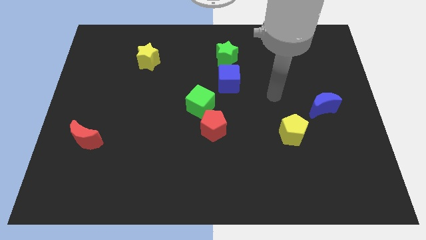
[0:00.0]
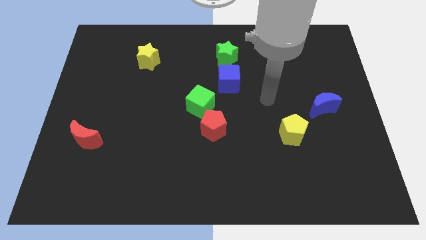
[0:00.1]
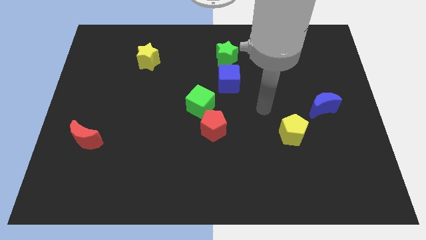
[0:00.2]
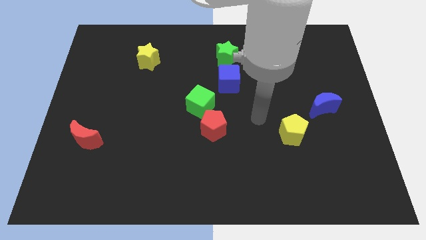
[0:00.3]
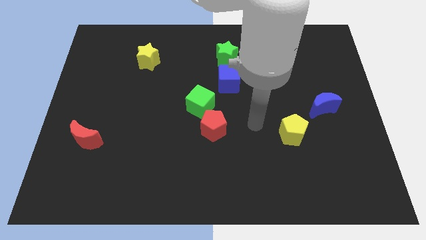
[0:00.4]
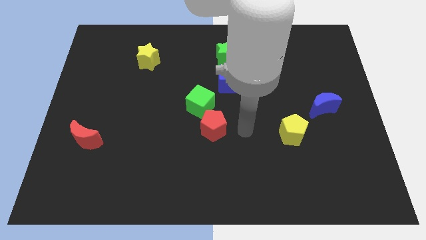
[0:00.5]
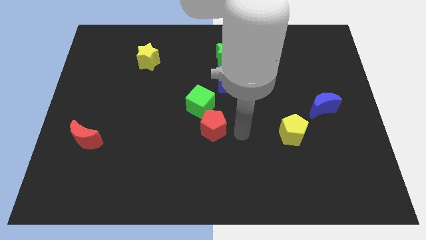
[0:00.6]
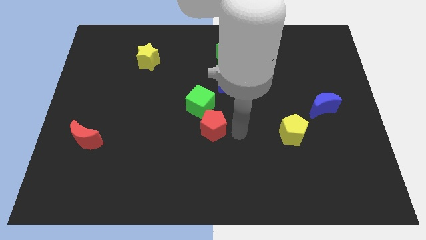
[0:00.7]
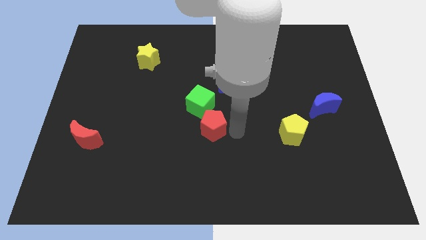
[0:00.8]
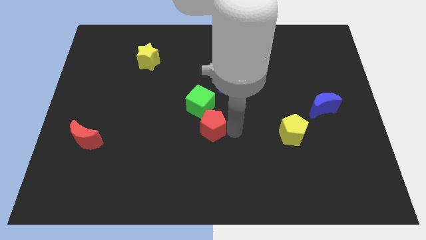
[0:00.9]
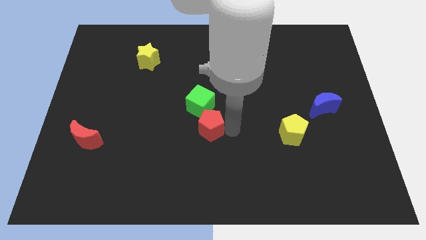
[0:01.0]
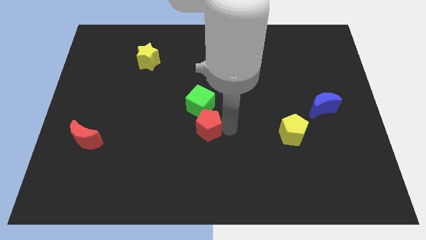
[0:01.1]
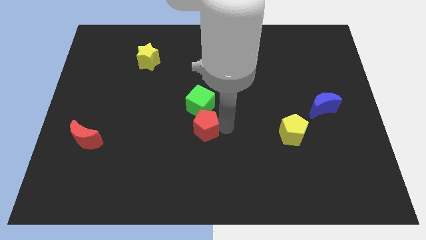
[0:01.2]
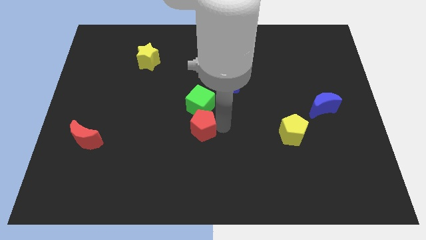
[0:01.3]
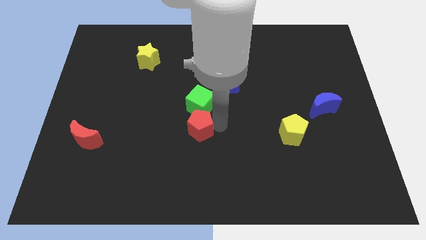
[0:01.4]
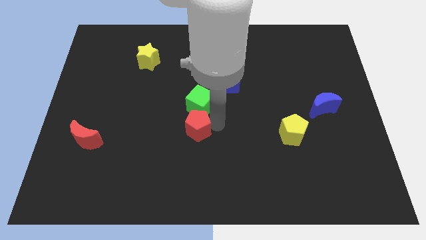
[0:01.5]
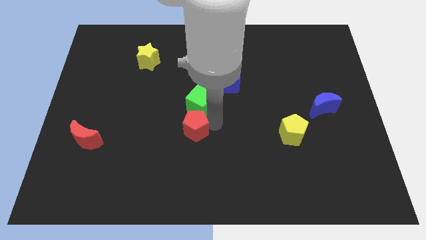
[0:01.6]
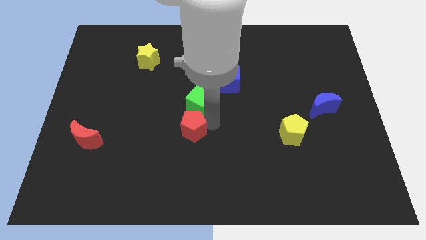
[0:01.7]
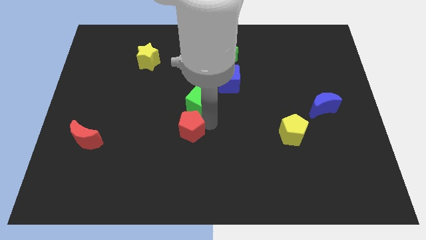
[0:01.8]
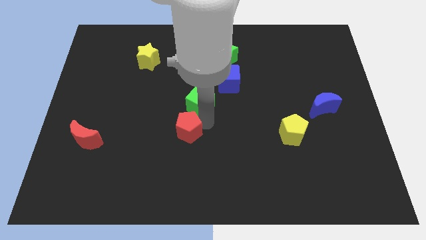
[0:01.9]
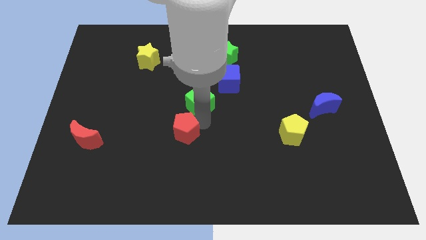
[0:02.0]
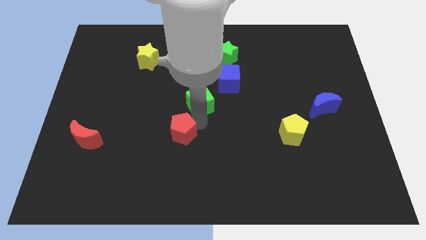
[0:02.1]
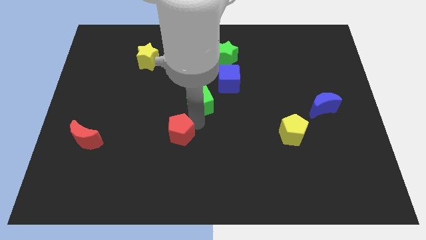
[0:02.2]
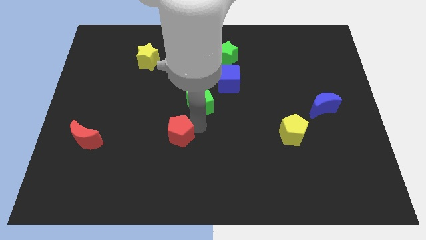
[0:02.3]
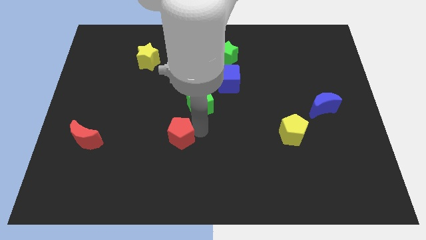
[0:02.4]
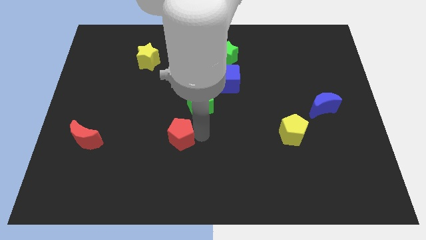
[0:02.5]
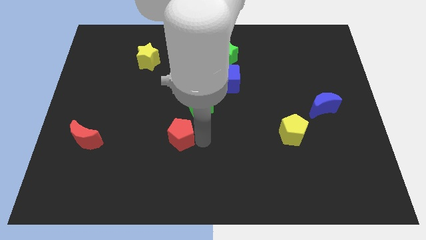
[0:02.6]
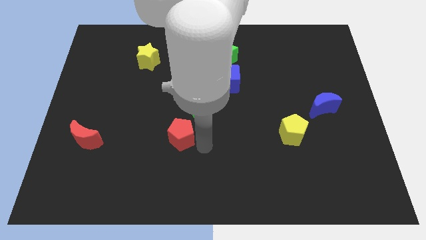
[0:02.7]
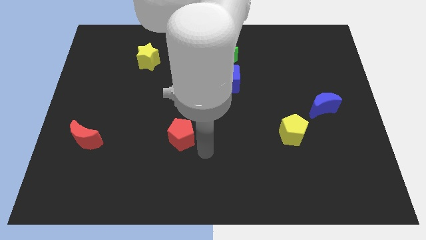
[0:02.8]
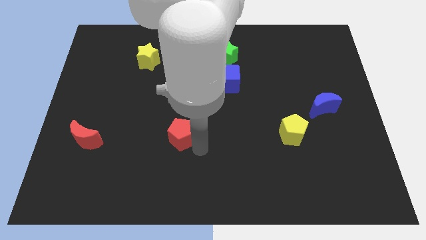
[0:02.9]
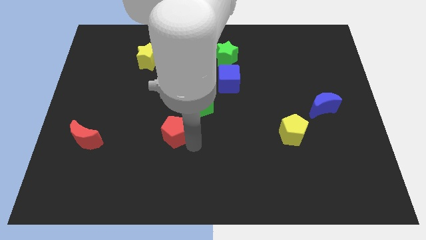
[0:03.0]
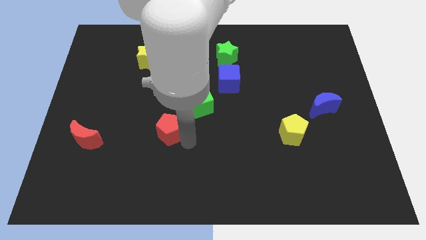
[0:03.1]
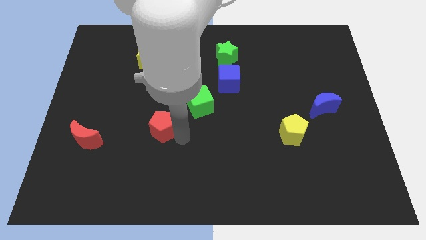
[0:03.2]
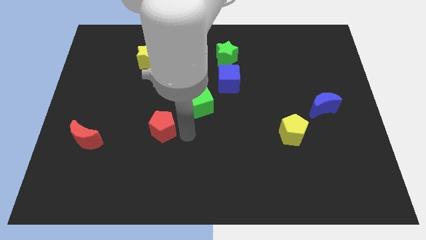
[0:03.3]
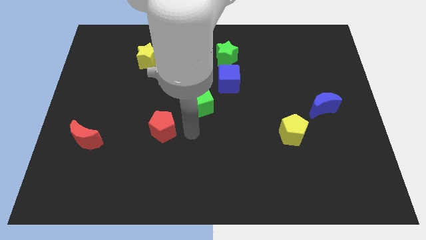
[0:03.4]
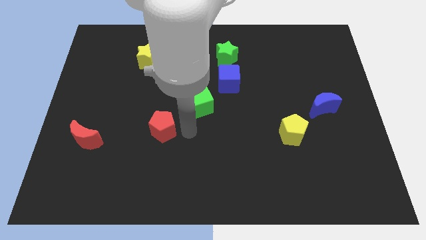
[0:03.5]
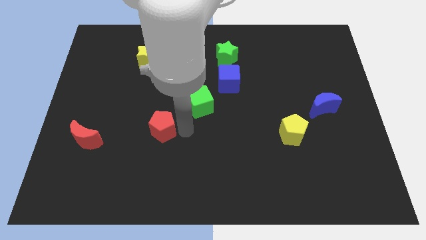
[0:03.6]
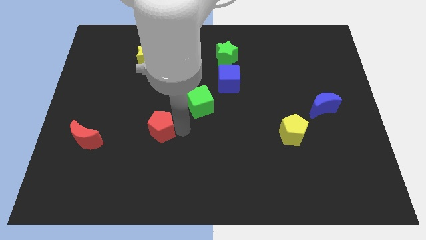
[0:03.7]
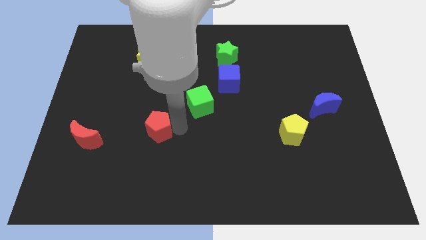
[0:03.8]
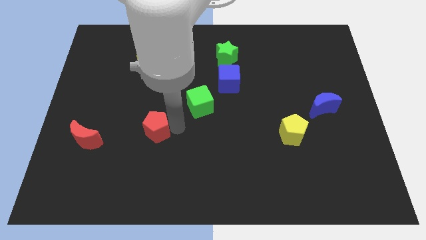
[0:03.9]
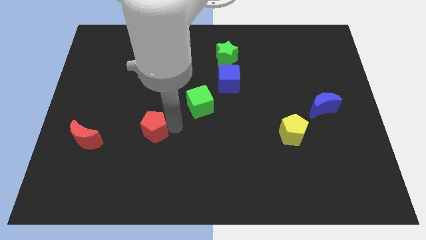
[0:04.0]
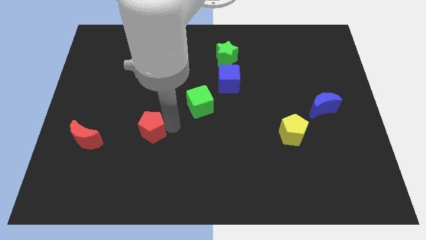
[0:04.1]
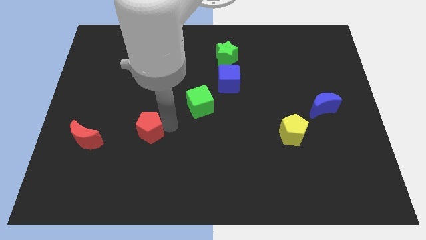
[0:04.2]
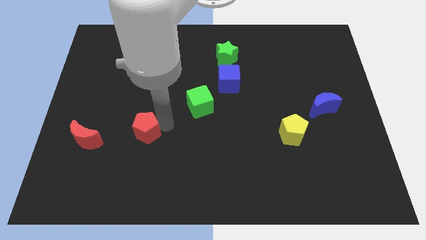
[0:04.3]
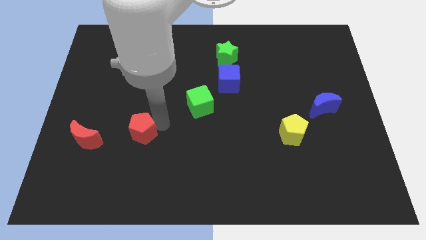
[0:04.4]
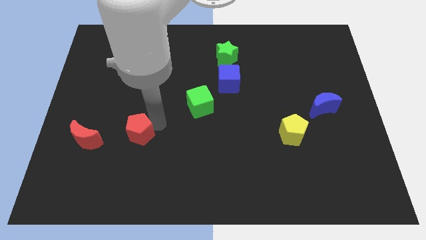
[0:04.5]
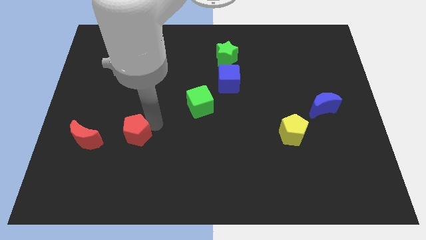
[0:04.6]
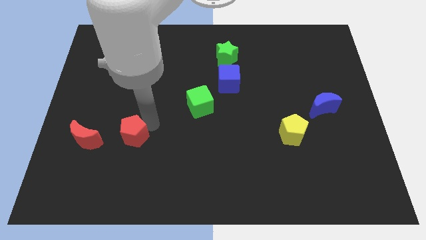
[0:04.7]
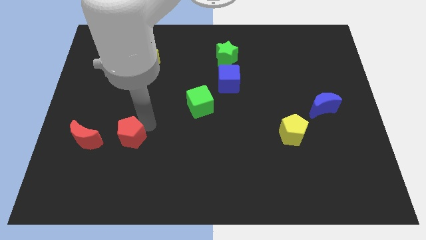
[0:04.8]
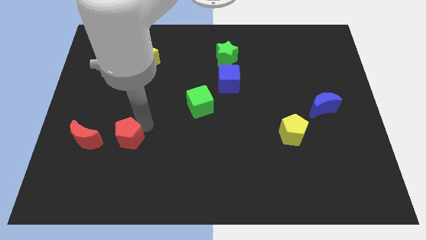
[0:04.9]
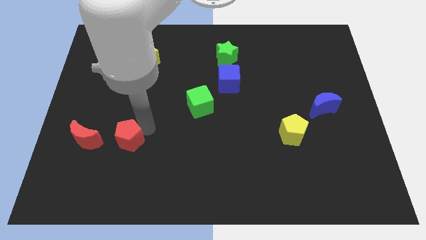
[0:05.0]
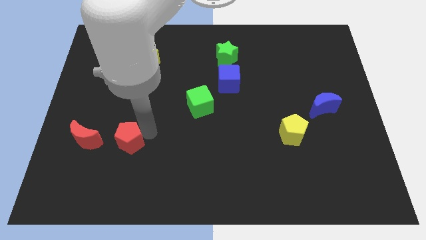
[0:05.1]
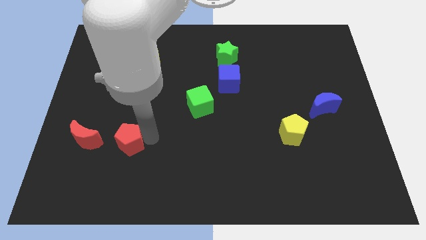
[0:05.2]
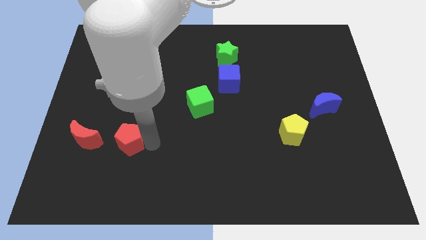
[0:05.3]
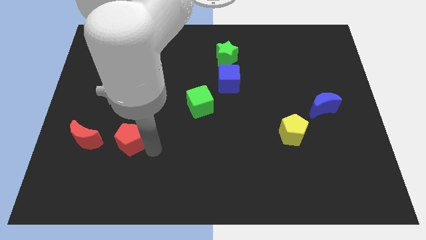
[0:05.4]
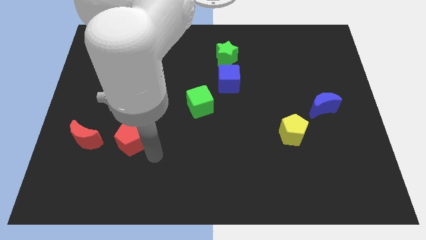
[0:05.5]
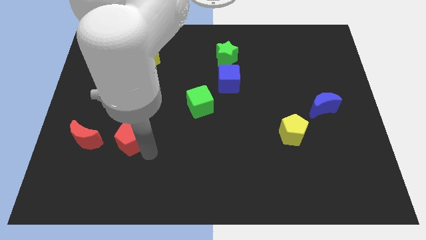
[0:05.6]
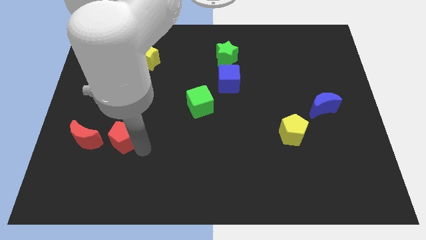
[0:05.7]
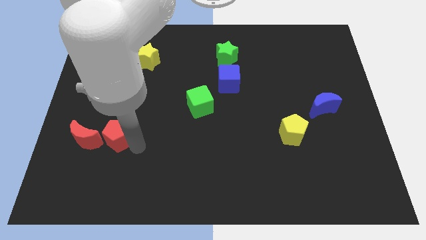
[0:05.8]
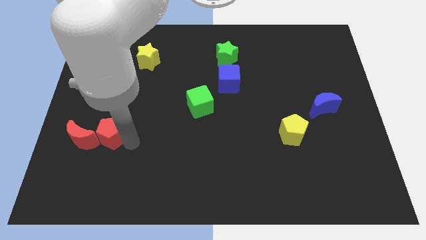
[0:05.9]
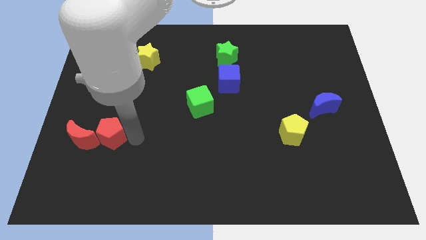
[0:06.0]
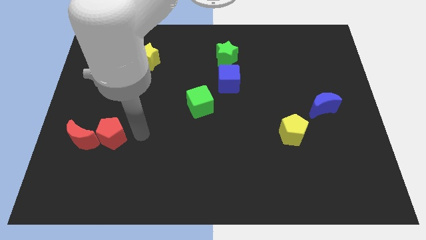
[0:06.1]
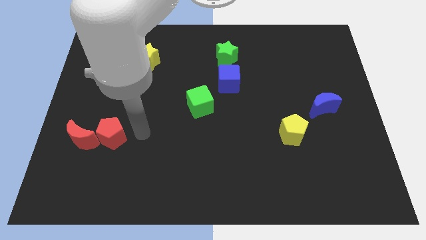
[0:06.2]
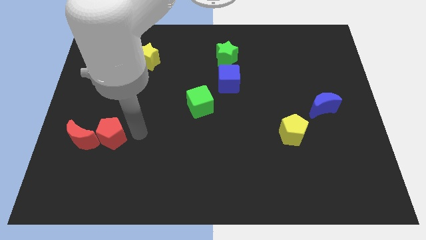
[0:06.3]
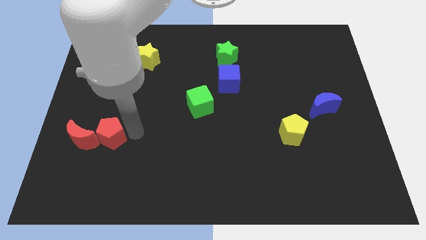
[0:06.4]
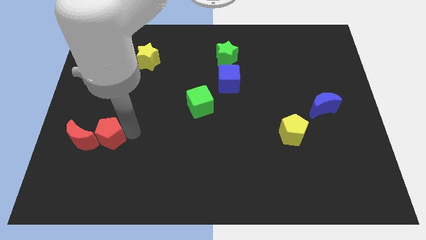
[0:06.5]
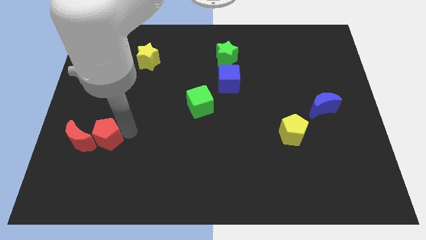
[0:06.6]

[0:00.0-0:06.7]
put the red pentagon towards the red moon

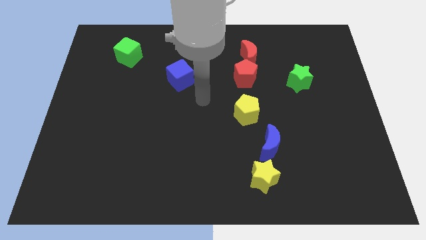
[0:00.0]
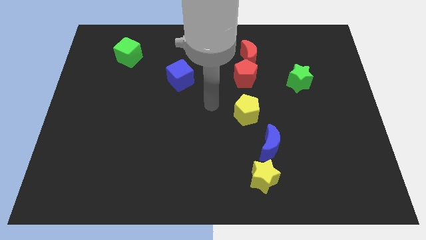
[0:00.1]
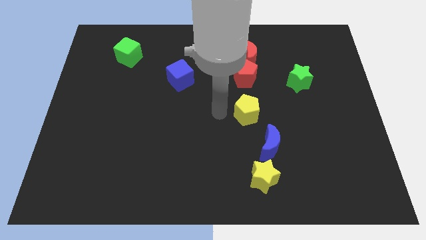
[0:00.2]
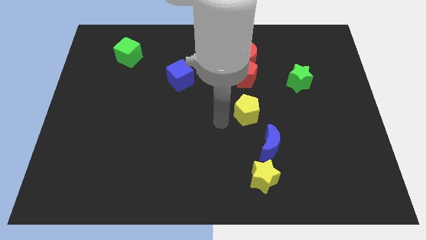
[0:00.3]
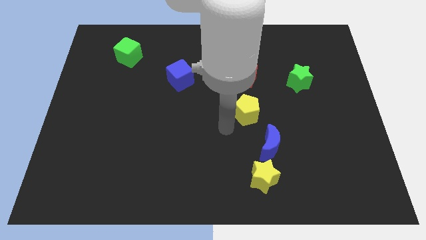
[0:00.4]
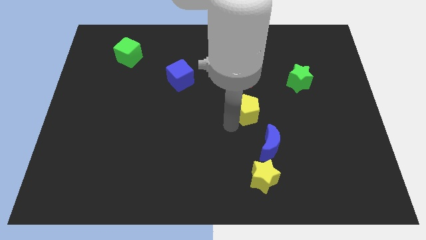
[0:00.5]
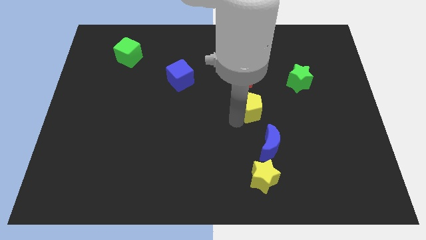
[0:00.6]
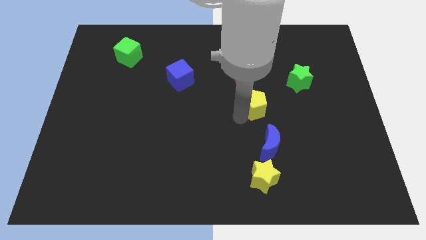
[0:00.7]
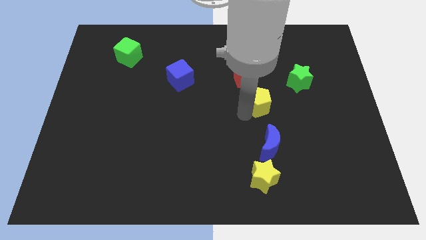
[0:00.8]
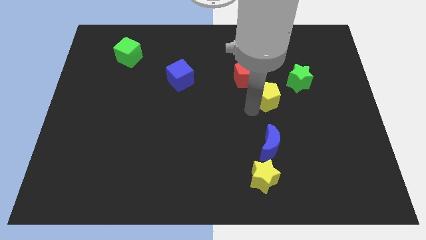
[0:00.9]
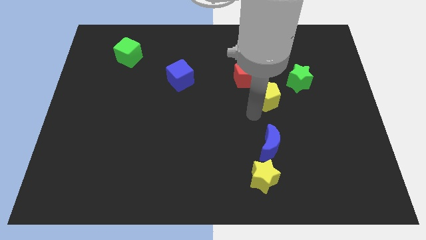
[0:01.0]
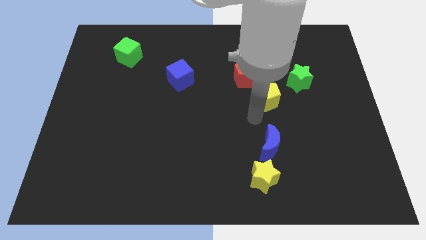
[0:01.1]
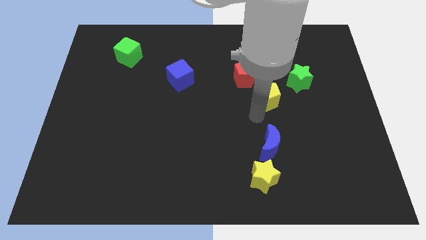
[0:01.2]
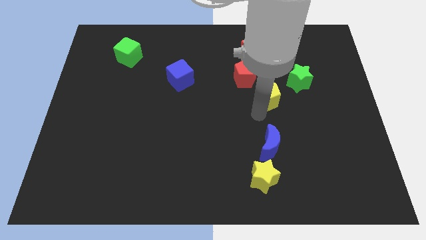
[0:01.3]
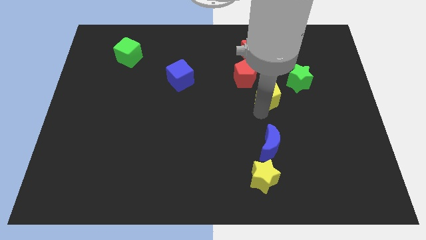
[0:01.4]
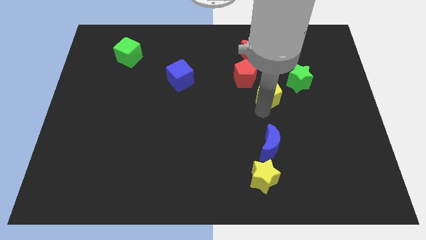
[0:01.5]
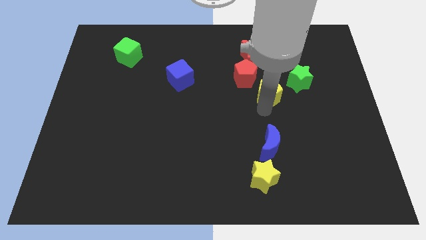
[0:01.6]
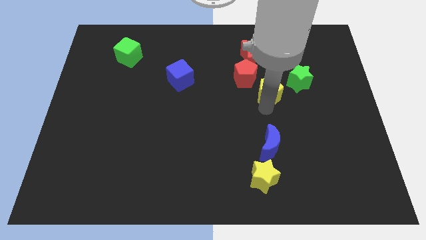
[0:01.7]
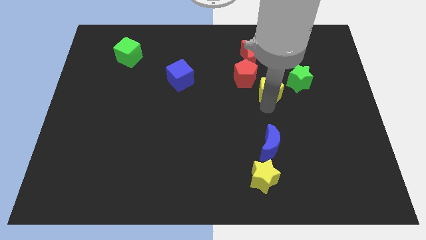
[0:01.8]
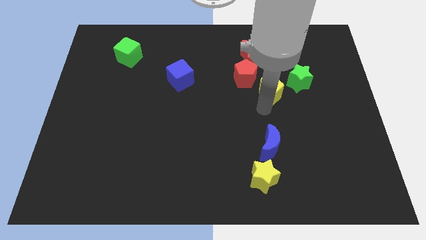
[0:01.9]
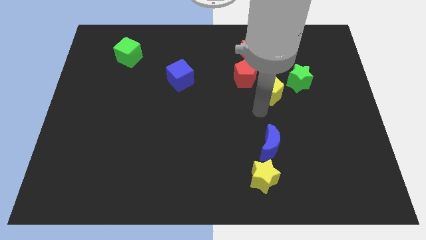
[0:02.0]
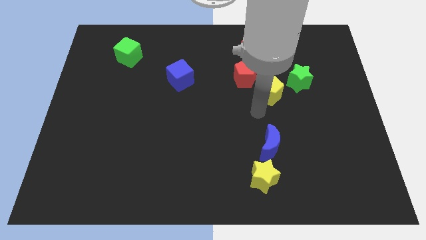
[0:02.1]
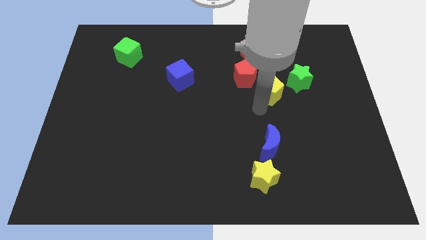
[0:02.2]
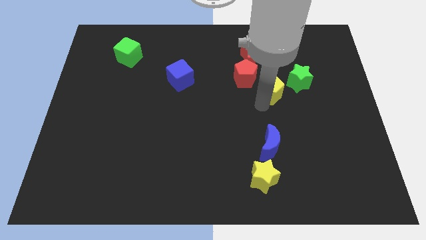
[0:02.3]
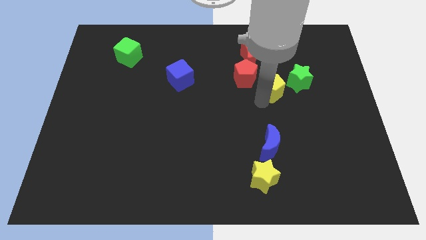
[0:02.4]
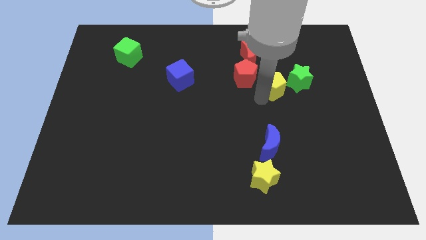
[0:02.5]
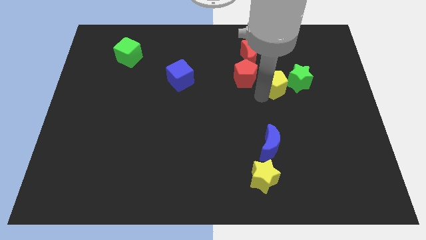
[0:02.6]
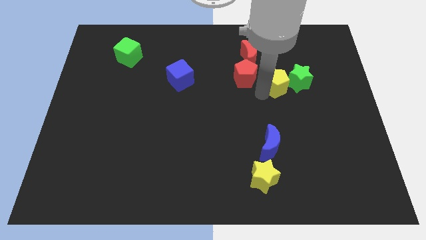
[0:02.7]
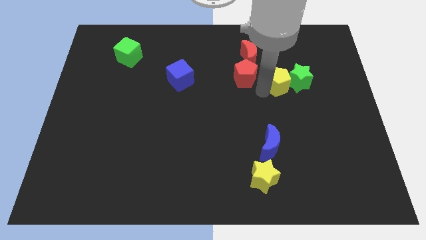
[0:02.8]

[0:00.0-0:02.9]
push the yellow pentagon towards the green star
